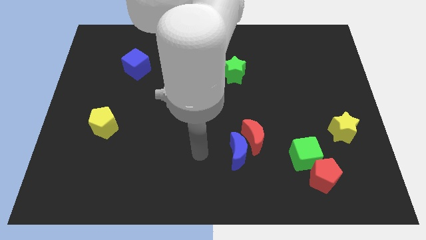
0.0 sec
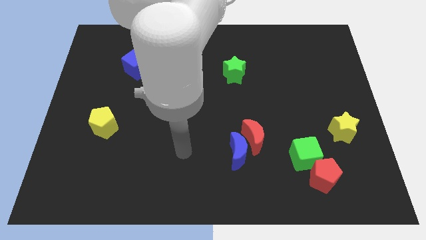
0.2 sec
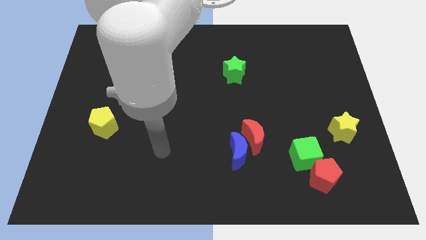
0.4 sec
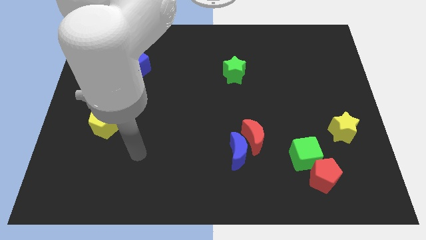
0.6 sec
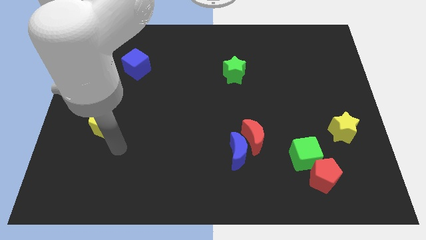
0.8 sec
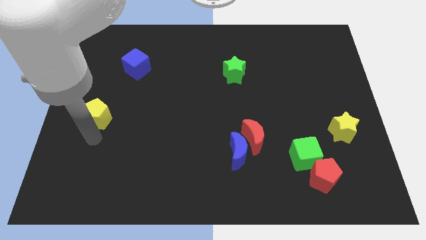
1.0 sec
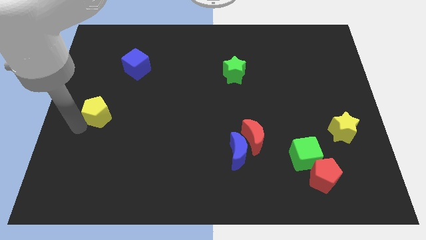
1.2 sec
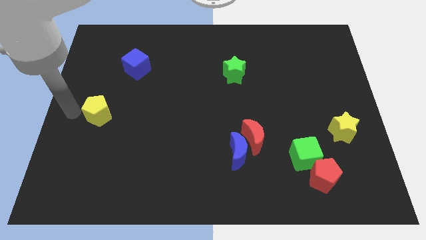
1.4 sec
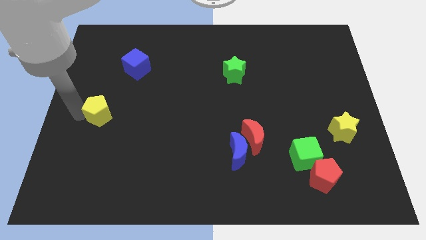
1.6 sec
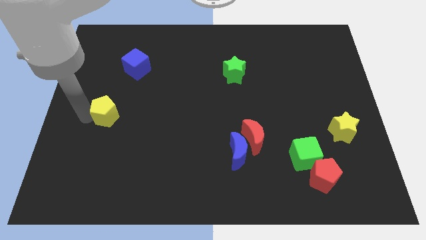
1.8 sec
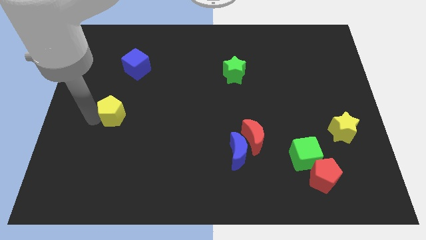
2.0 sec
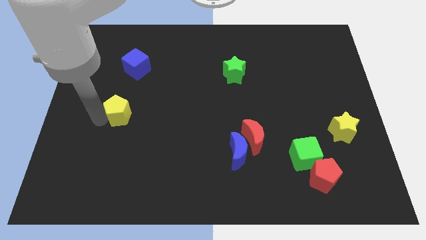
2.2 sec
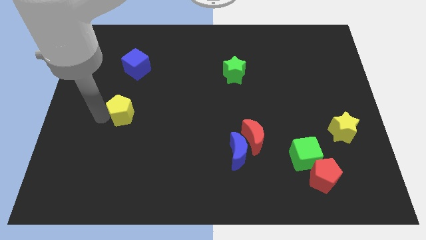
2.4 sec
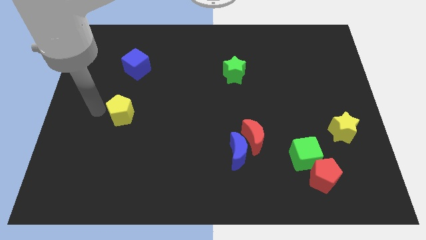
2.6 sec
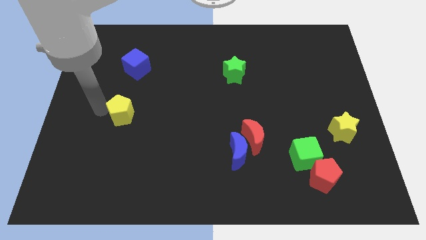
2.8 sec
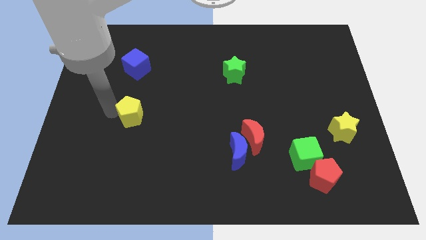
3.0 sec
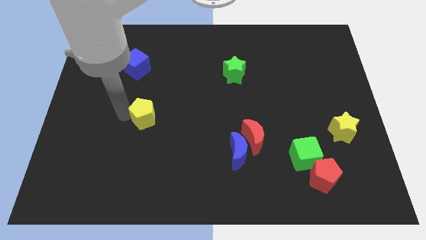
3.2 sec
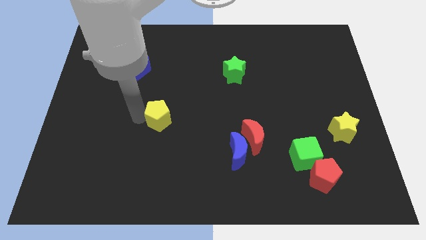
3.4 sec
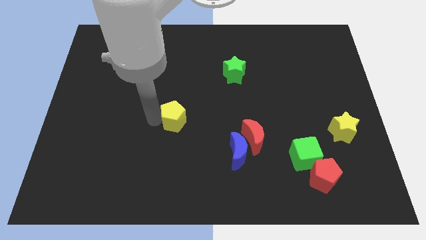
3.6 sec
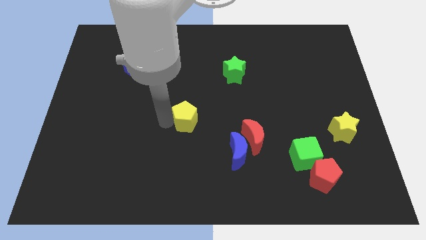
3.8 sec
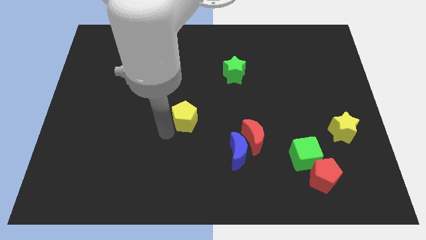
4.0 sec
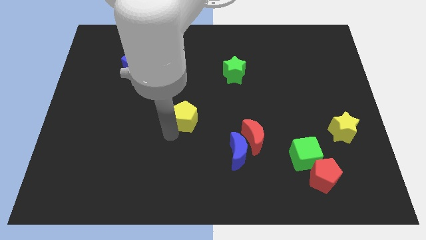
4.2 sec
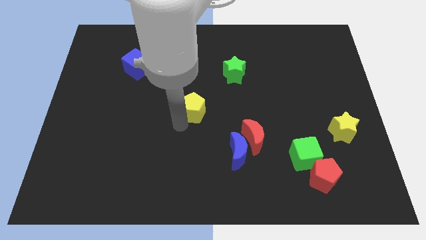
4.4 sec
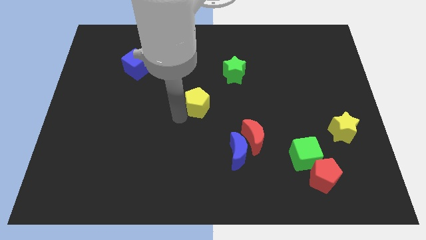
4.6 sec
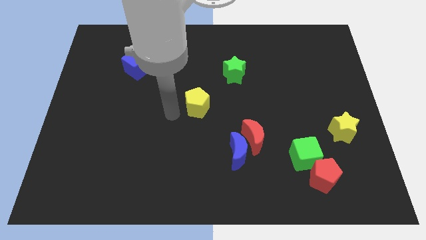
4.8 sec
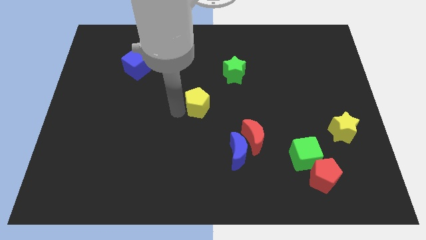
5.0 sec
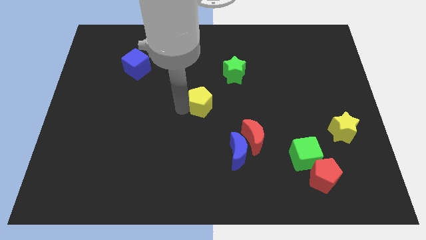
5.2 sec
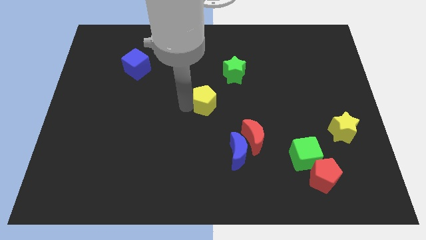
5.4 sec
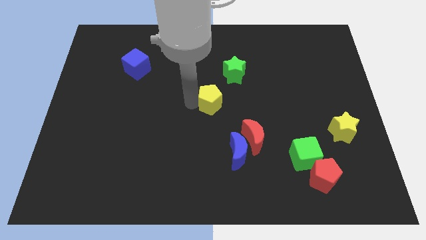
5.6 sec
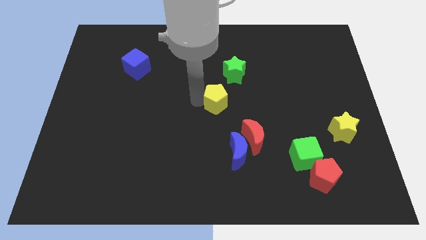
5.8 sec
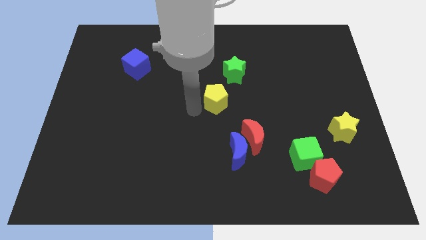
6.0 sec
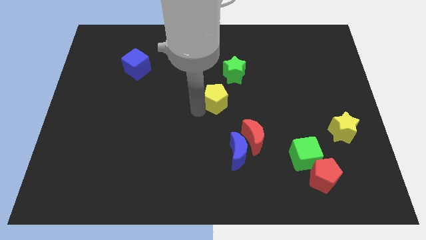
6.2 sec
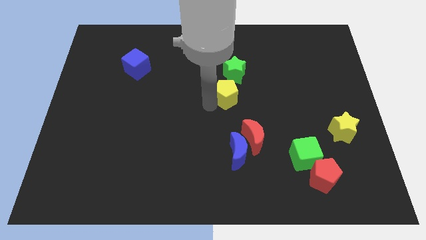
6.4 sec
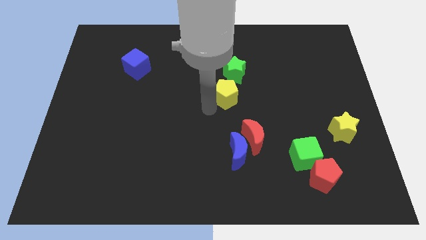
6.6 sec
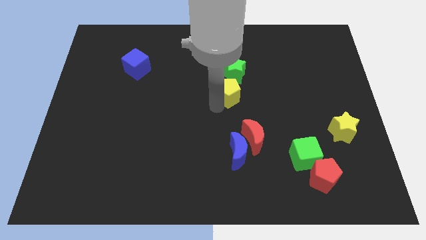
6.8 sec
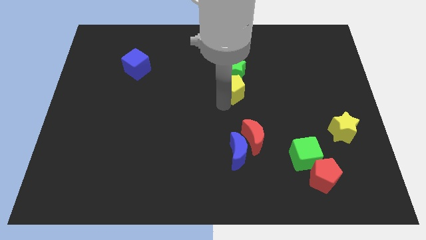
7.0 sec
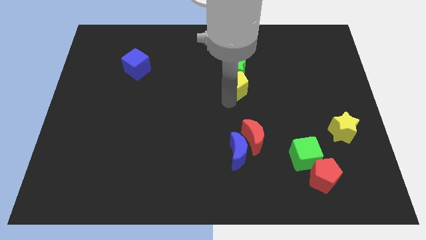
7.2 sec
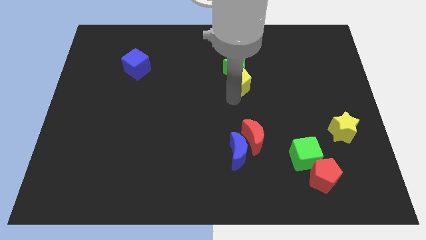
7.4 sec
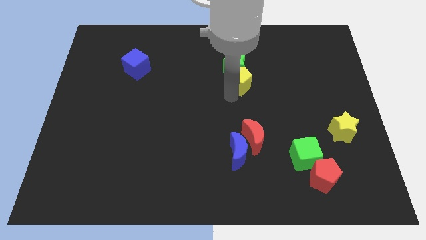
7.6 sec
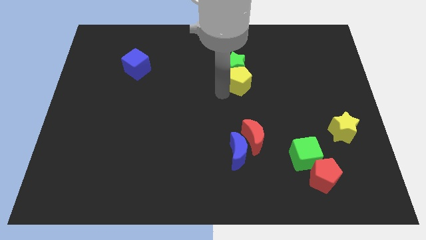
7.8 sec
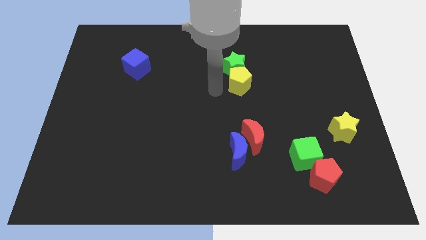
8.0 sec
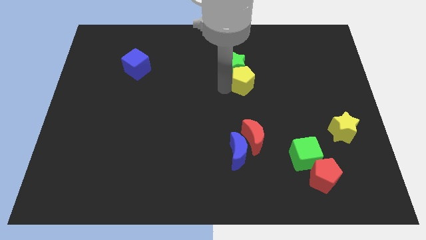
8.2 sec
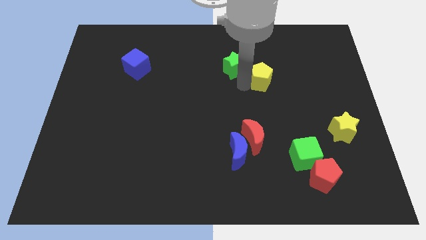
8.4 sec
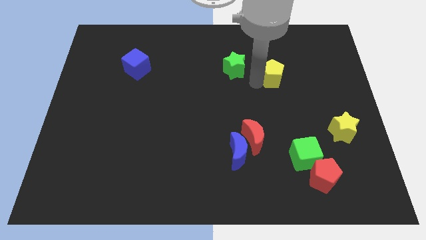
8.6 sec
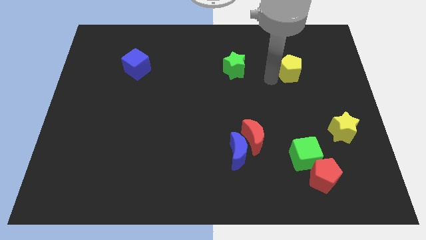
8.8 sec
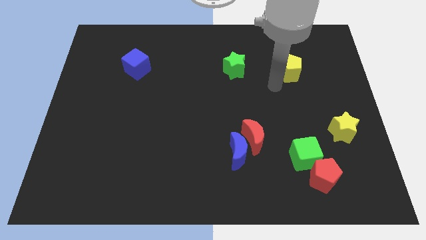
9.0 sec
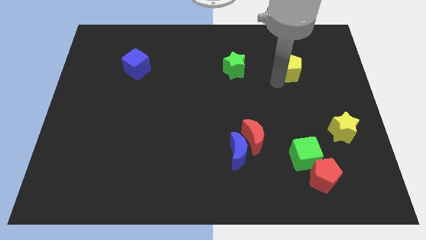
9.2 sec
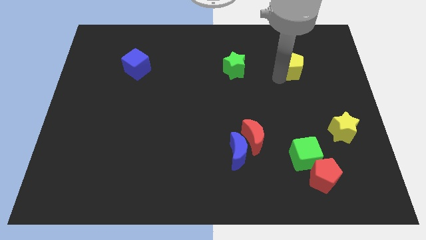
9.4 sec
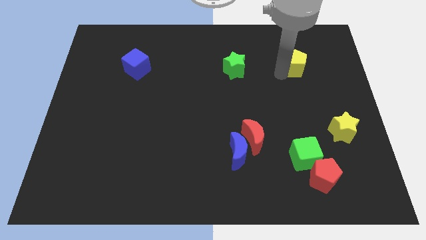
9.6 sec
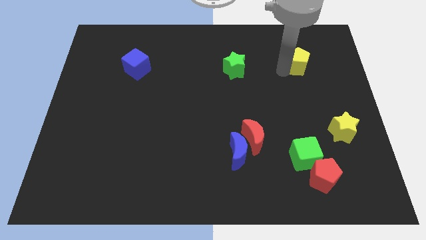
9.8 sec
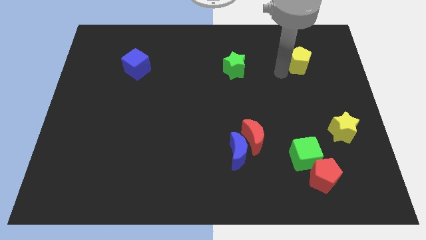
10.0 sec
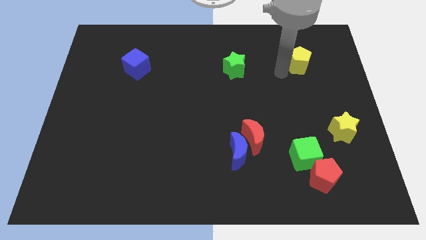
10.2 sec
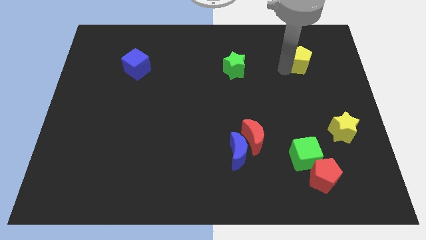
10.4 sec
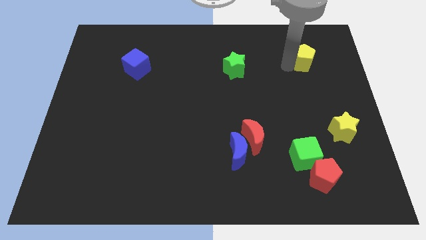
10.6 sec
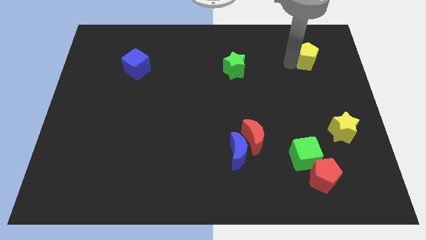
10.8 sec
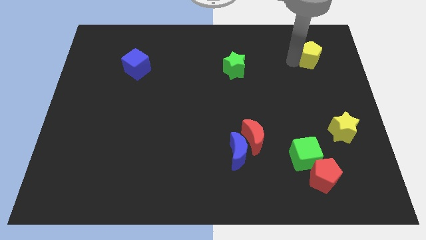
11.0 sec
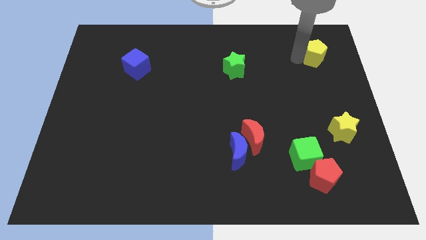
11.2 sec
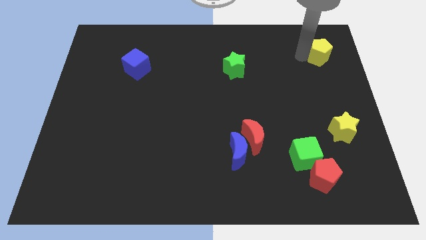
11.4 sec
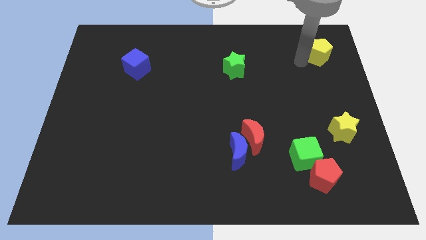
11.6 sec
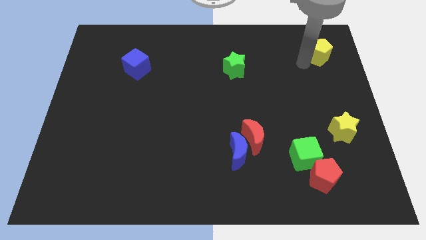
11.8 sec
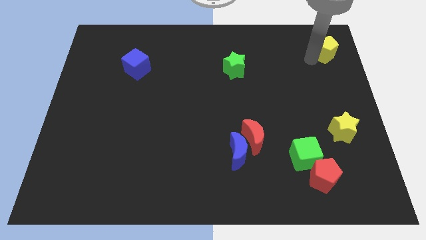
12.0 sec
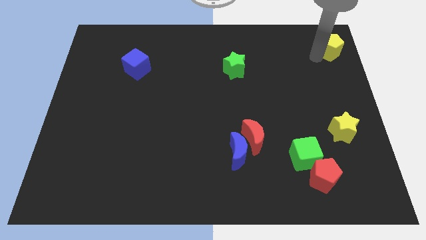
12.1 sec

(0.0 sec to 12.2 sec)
push the yellow pentagon to the top right corner

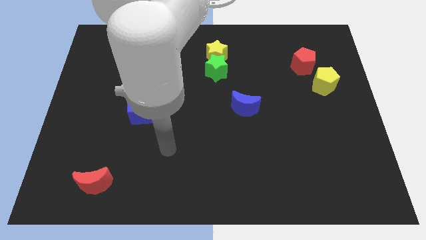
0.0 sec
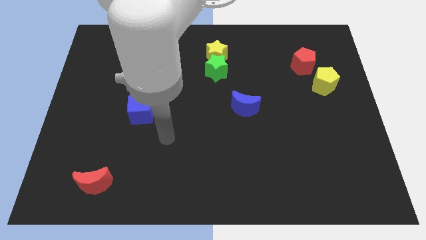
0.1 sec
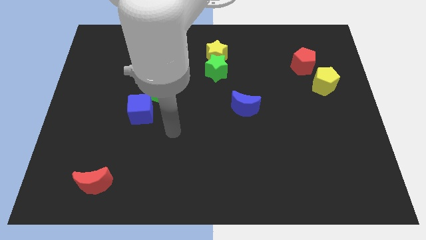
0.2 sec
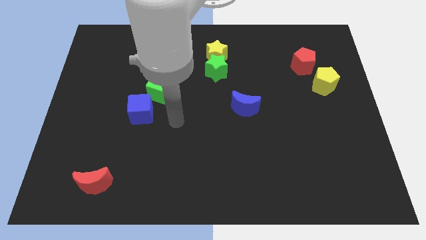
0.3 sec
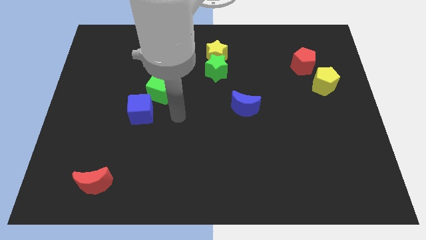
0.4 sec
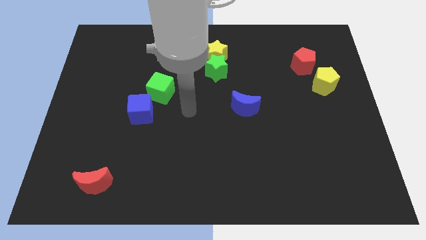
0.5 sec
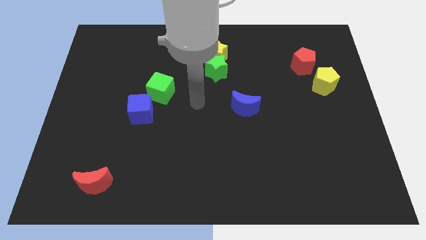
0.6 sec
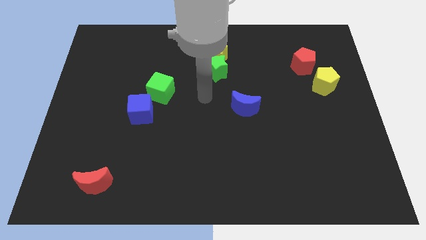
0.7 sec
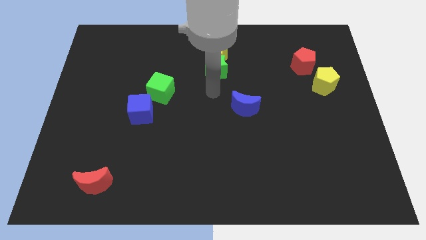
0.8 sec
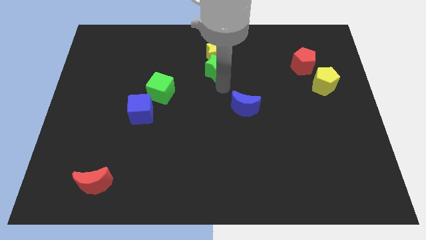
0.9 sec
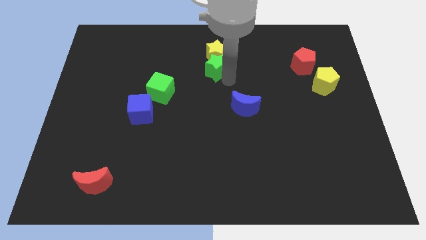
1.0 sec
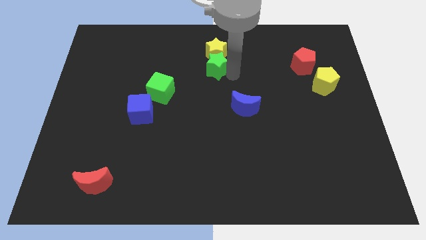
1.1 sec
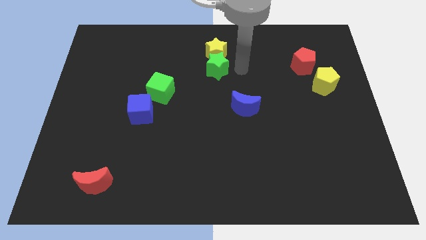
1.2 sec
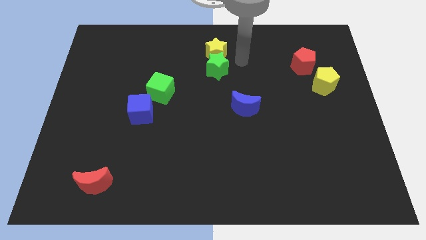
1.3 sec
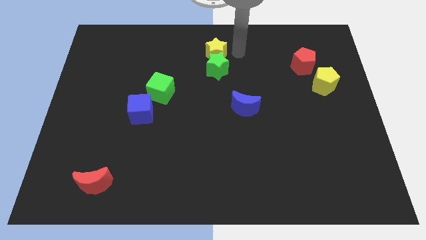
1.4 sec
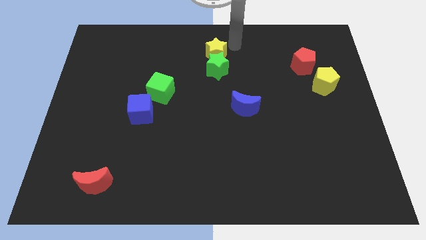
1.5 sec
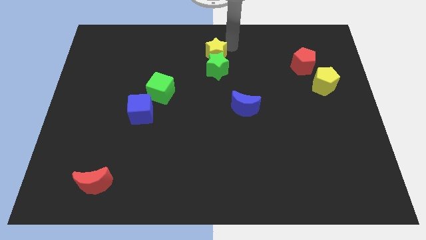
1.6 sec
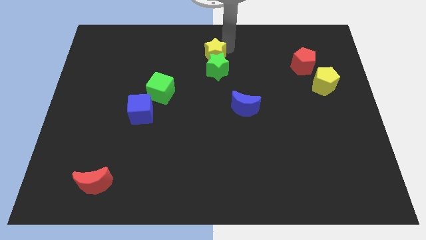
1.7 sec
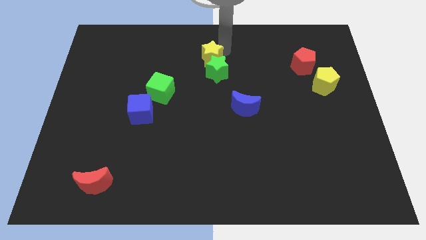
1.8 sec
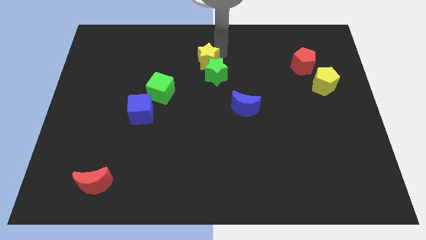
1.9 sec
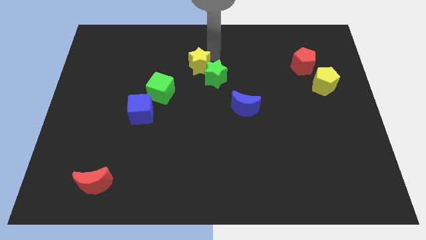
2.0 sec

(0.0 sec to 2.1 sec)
push the yellow star to the middle
